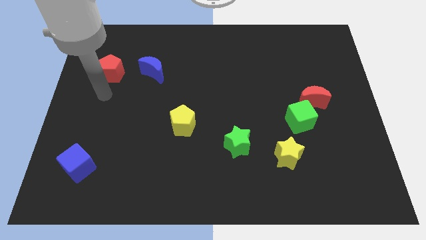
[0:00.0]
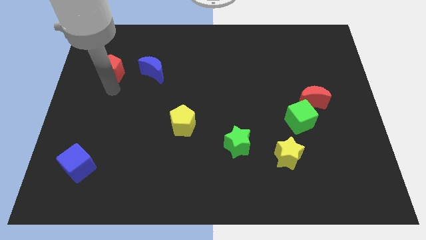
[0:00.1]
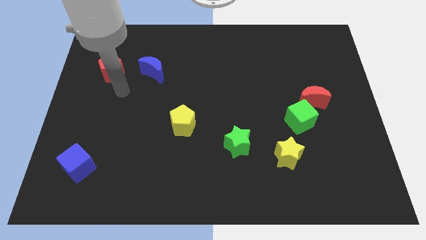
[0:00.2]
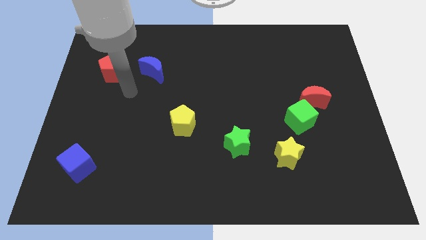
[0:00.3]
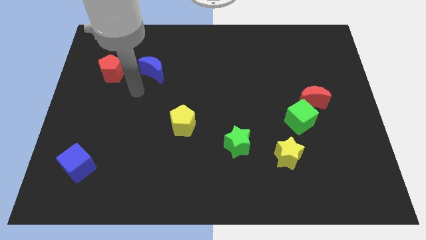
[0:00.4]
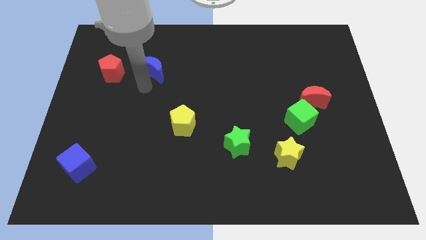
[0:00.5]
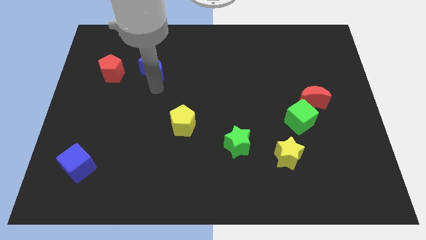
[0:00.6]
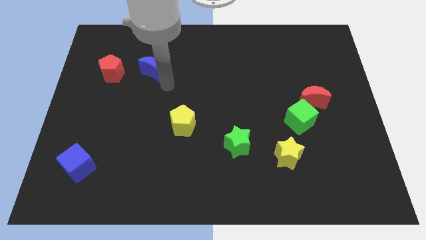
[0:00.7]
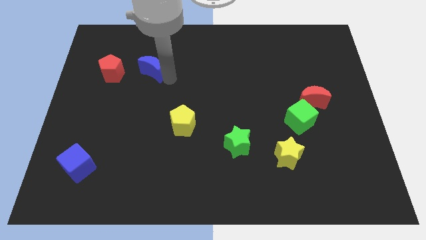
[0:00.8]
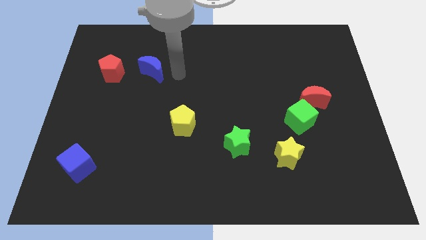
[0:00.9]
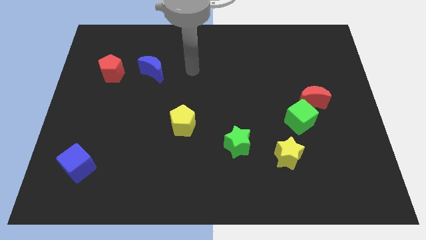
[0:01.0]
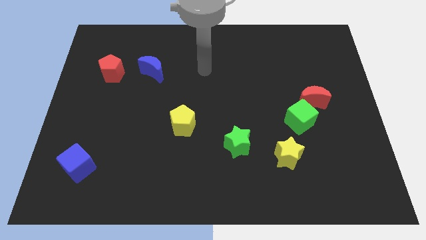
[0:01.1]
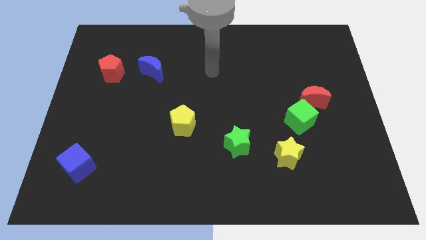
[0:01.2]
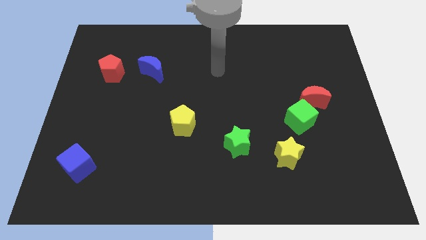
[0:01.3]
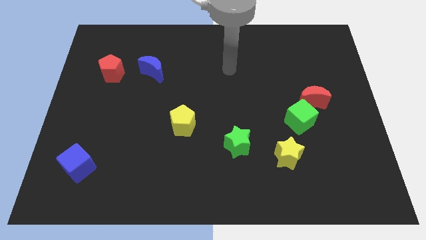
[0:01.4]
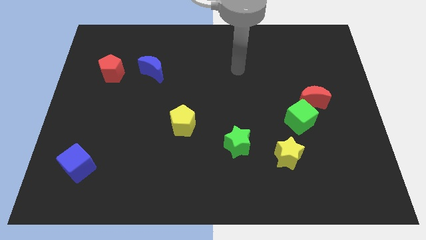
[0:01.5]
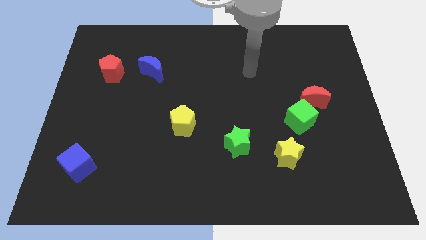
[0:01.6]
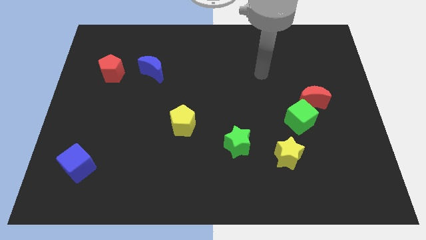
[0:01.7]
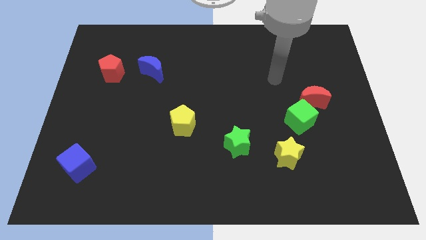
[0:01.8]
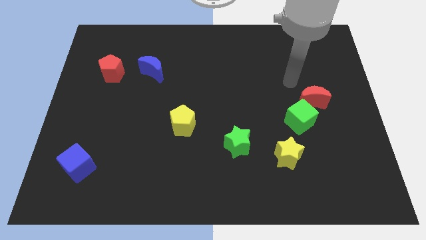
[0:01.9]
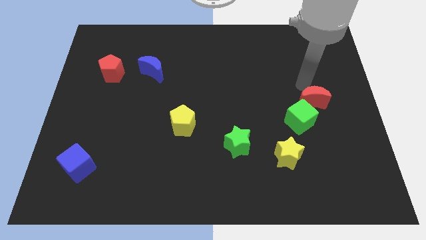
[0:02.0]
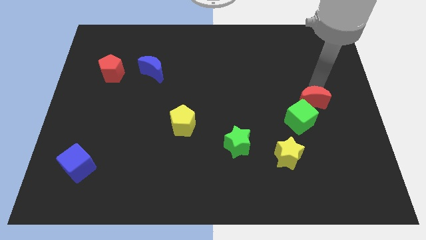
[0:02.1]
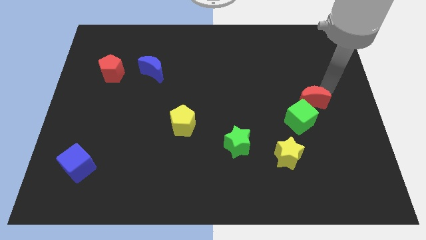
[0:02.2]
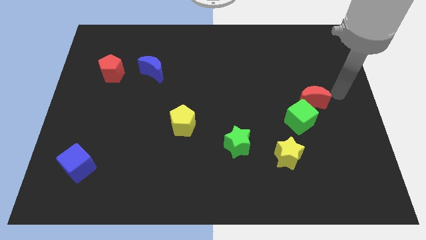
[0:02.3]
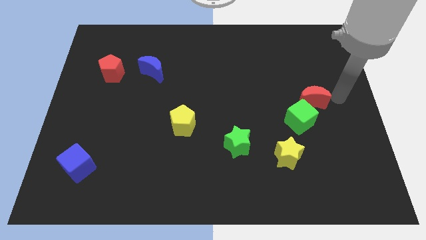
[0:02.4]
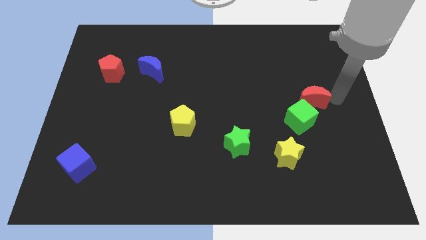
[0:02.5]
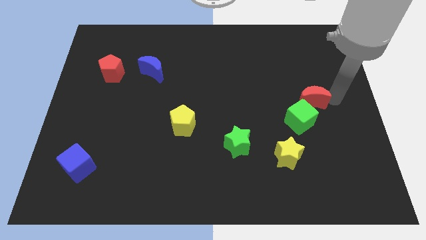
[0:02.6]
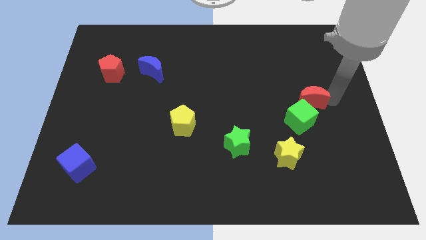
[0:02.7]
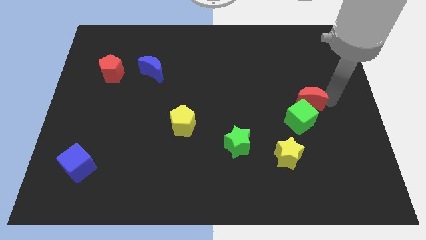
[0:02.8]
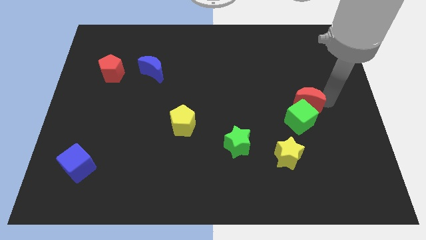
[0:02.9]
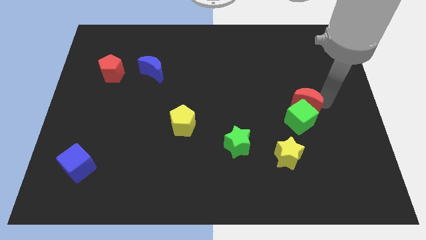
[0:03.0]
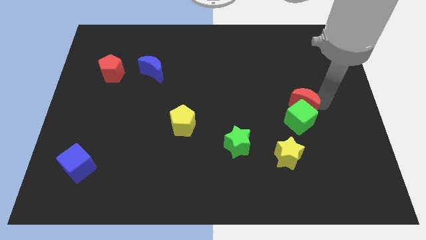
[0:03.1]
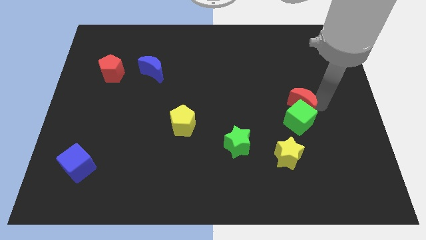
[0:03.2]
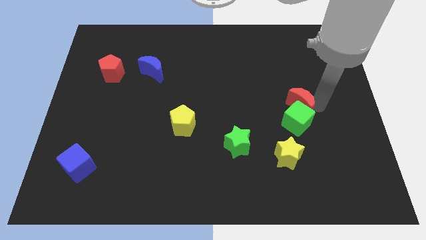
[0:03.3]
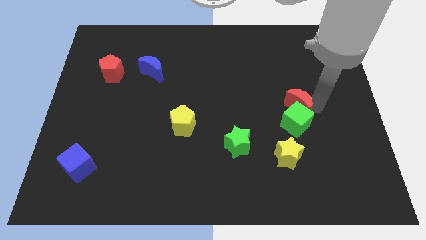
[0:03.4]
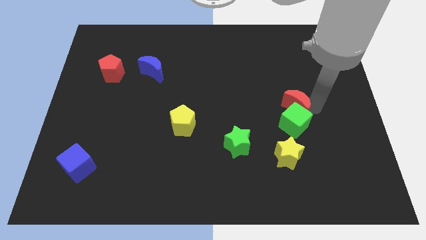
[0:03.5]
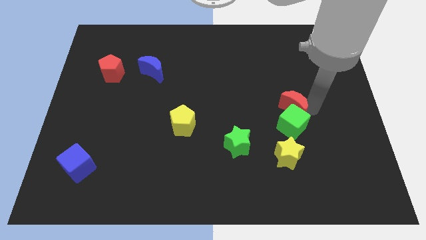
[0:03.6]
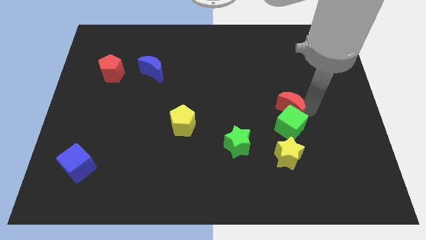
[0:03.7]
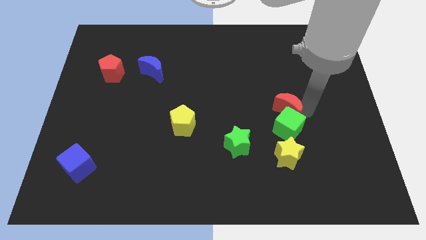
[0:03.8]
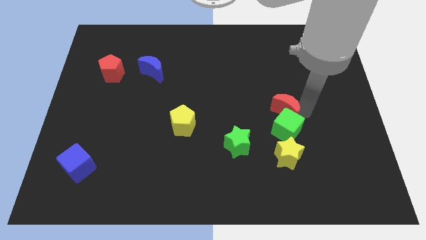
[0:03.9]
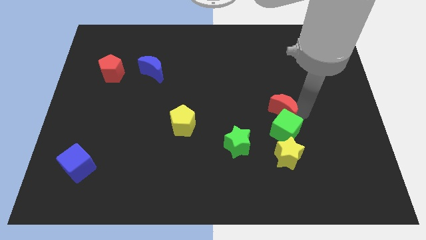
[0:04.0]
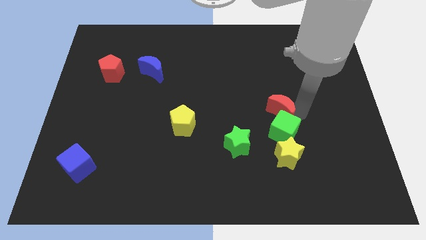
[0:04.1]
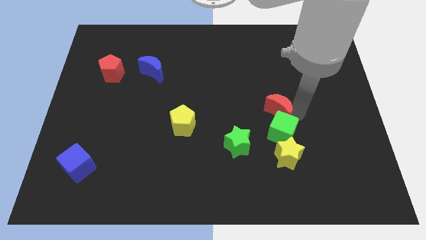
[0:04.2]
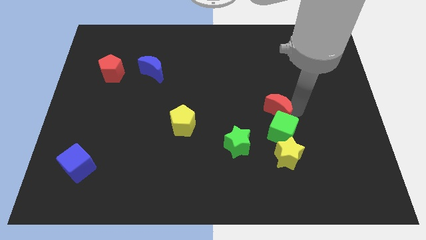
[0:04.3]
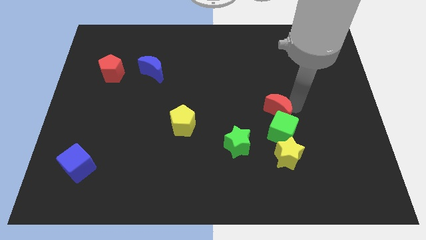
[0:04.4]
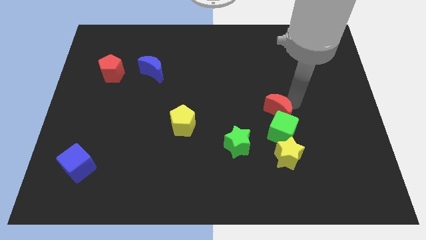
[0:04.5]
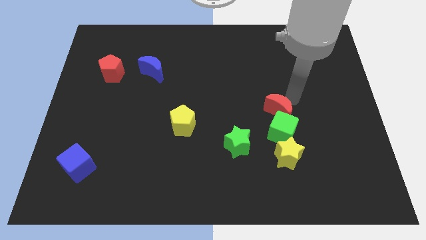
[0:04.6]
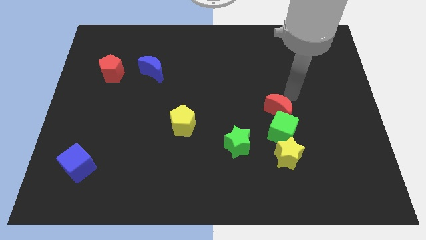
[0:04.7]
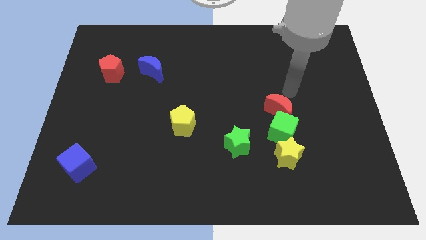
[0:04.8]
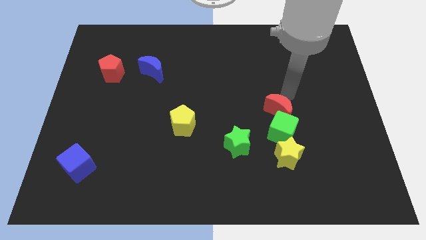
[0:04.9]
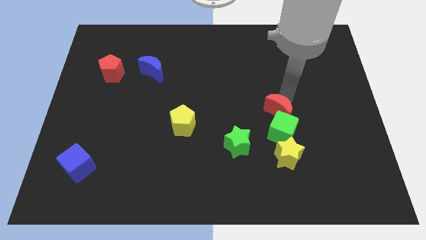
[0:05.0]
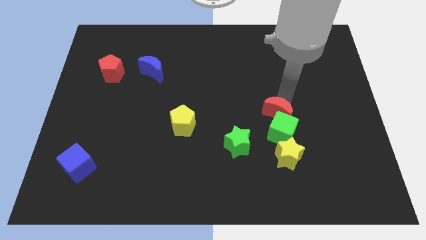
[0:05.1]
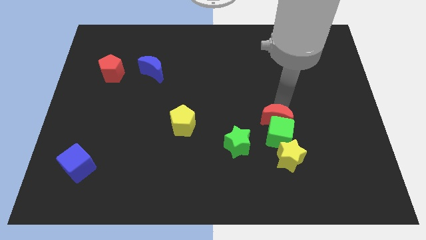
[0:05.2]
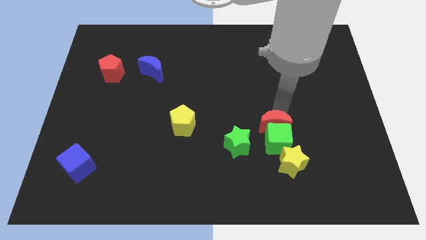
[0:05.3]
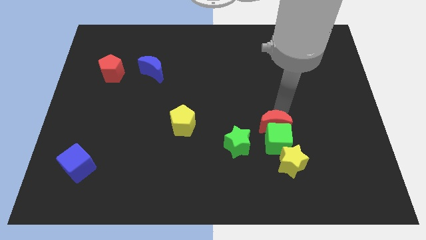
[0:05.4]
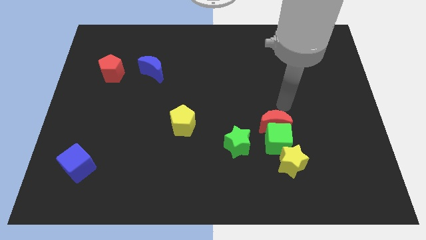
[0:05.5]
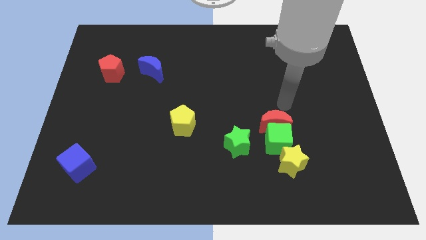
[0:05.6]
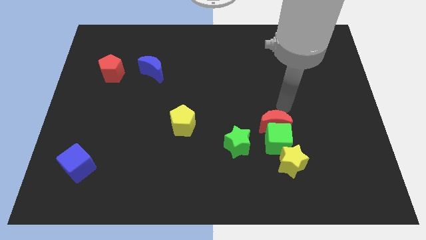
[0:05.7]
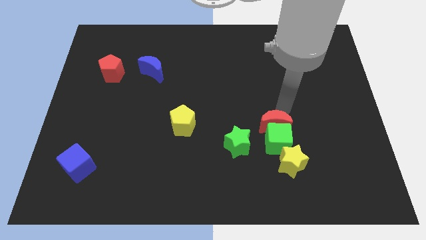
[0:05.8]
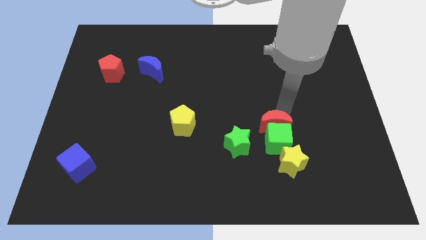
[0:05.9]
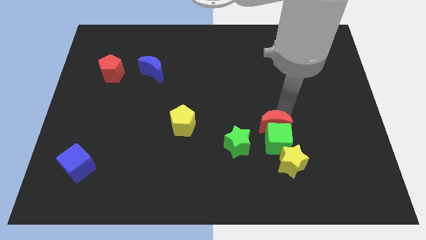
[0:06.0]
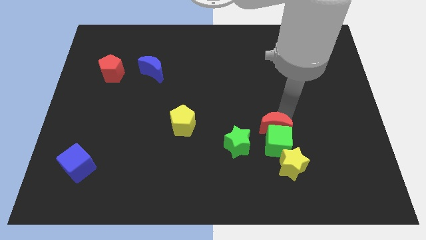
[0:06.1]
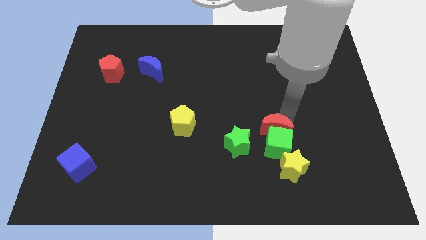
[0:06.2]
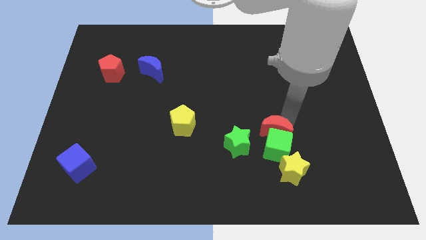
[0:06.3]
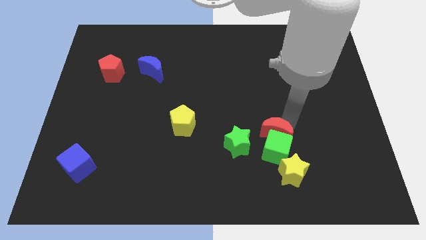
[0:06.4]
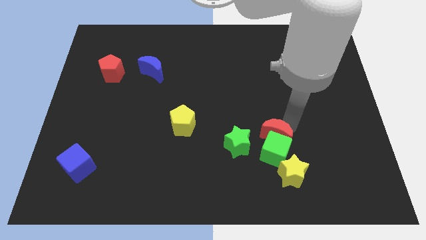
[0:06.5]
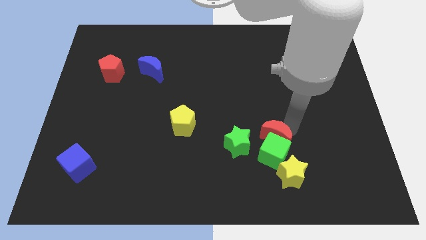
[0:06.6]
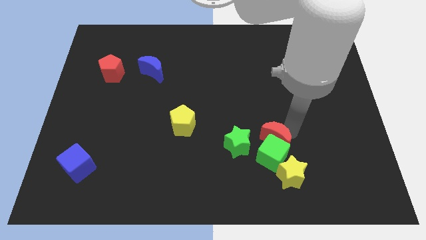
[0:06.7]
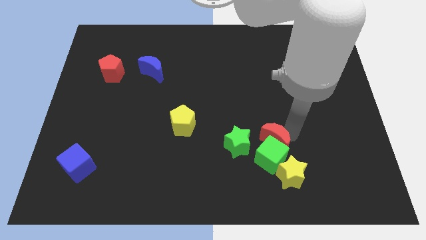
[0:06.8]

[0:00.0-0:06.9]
move the red moon to the top left side of the yellow star

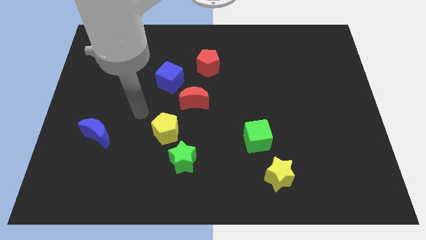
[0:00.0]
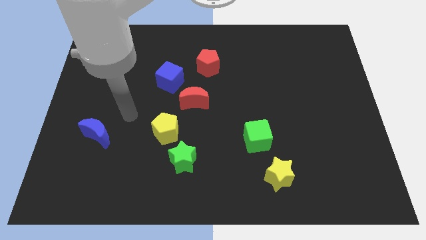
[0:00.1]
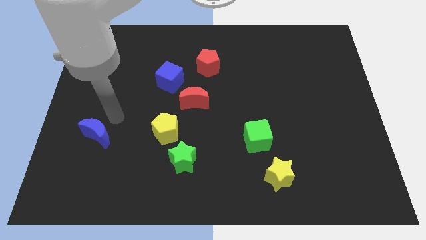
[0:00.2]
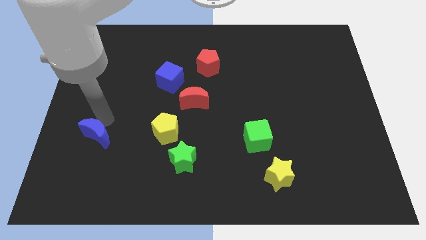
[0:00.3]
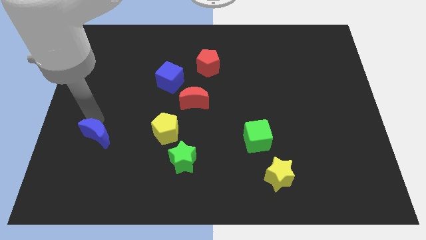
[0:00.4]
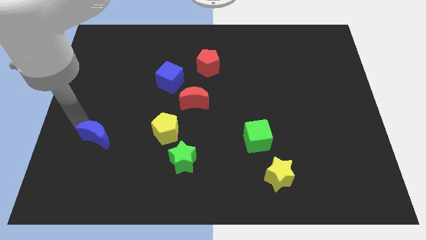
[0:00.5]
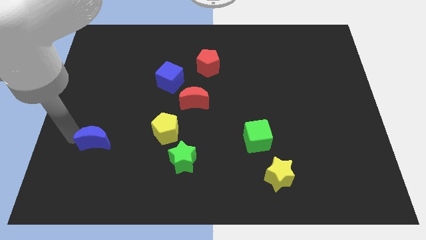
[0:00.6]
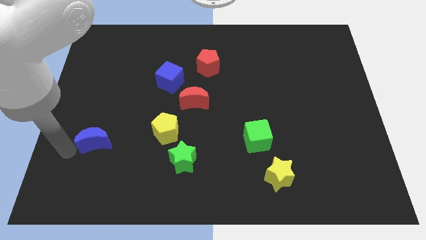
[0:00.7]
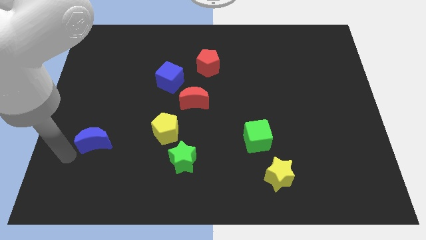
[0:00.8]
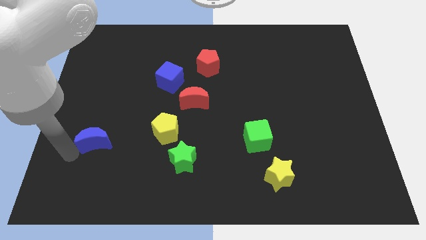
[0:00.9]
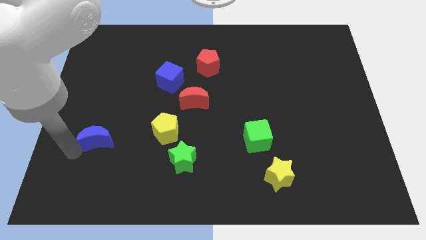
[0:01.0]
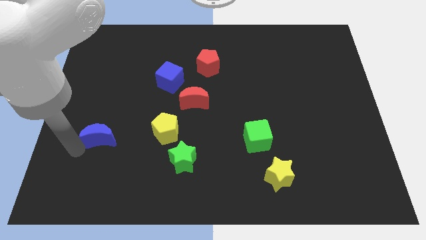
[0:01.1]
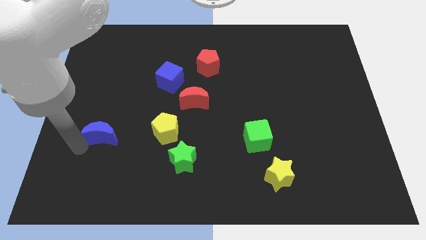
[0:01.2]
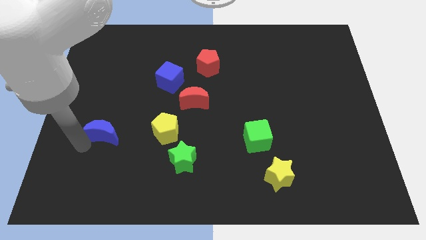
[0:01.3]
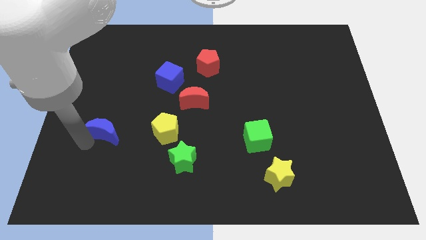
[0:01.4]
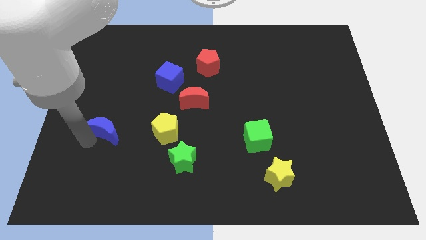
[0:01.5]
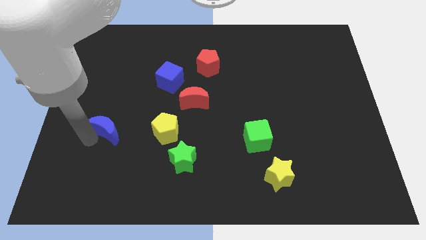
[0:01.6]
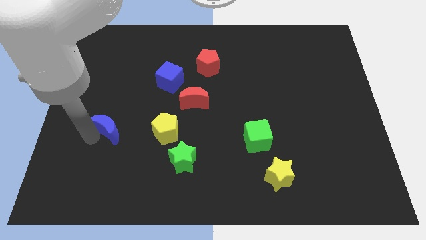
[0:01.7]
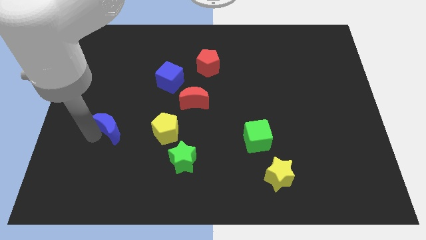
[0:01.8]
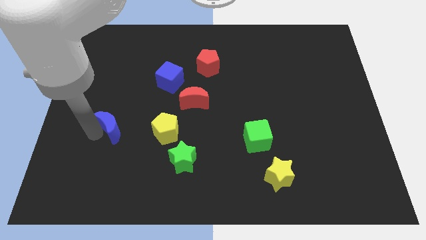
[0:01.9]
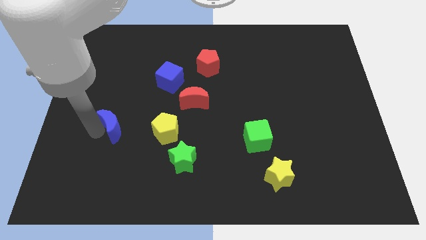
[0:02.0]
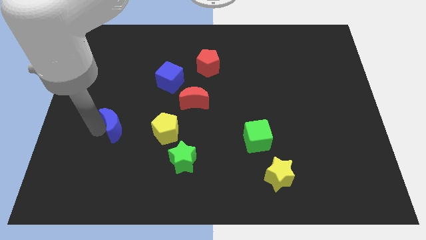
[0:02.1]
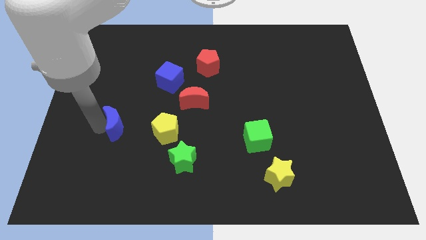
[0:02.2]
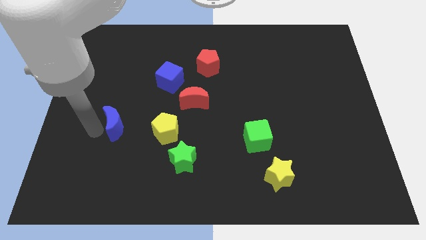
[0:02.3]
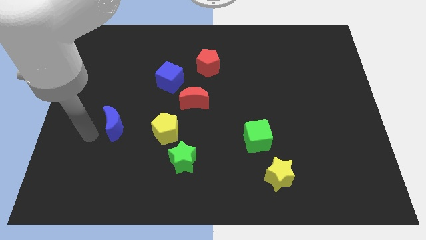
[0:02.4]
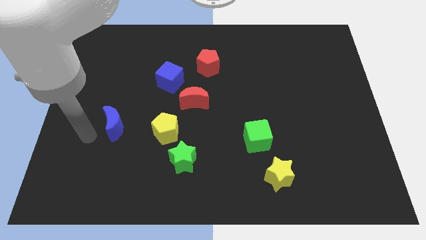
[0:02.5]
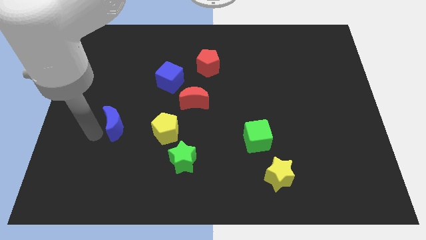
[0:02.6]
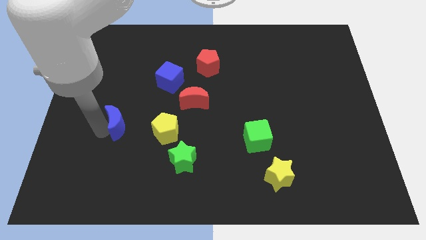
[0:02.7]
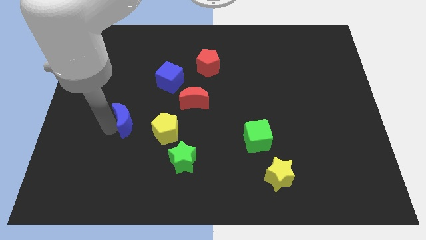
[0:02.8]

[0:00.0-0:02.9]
move the blue moon diagonally up and to the left of the yellow pentagon
